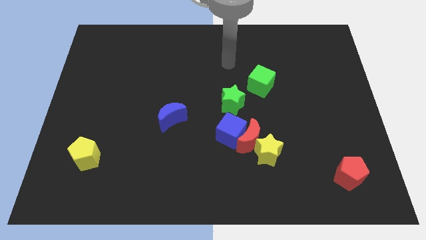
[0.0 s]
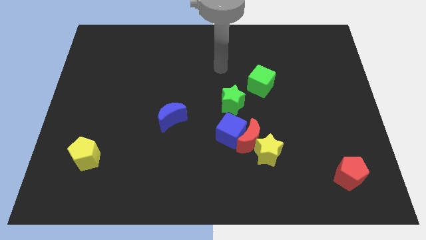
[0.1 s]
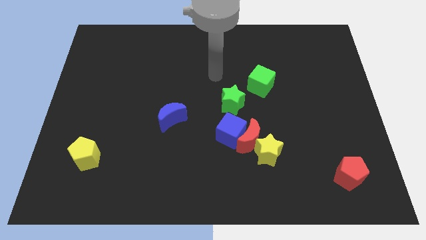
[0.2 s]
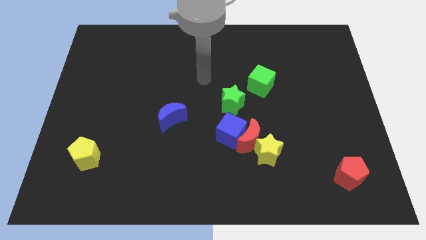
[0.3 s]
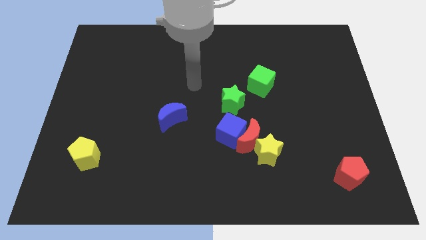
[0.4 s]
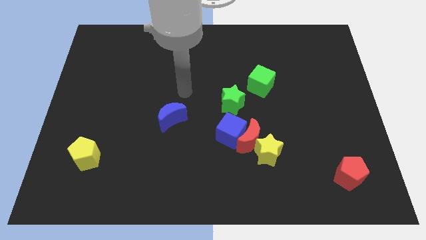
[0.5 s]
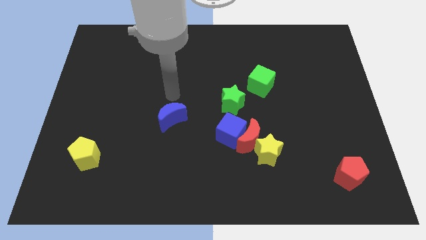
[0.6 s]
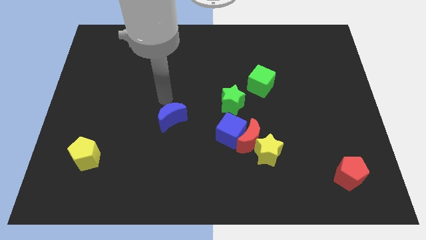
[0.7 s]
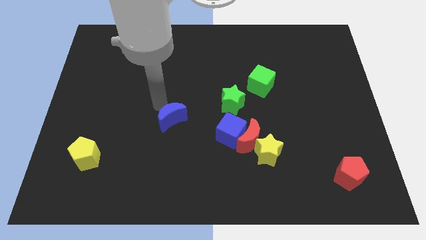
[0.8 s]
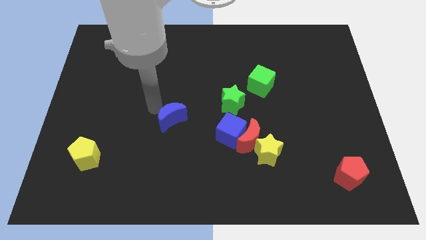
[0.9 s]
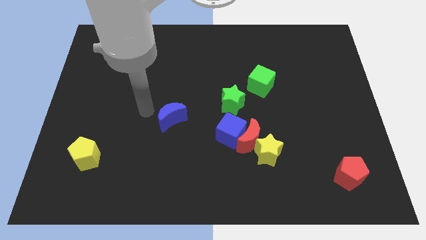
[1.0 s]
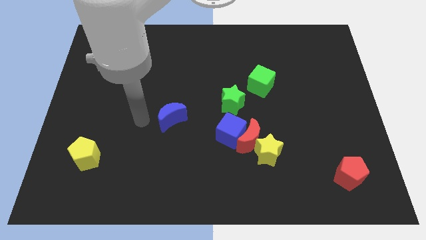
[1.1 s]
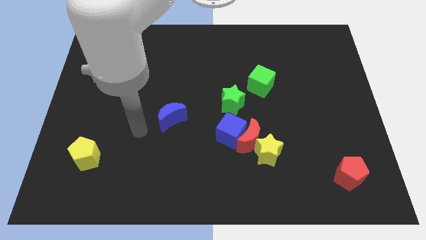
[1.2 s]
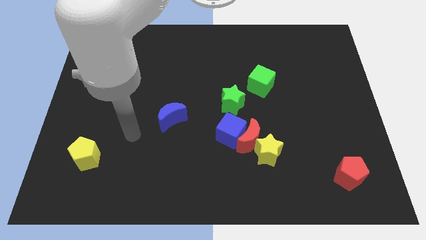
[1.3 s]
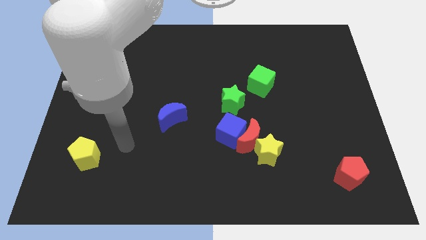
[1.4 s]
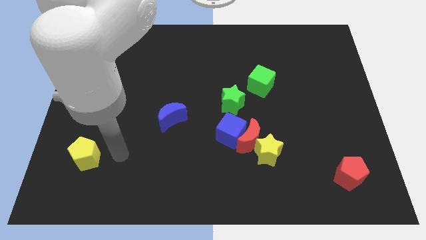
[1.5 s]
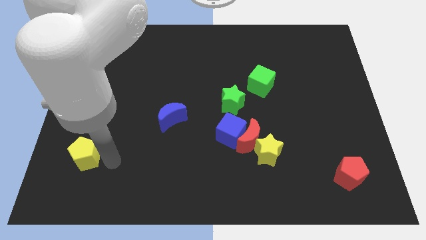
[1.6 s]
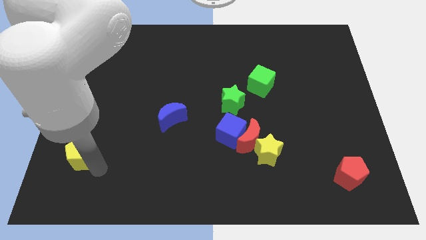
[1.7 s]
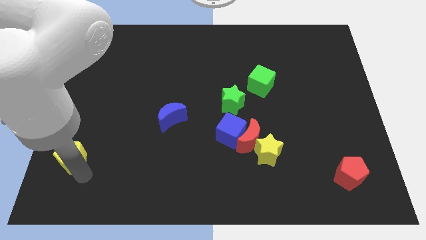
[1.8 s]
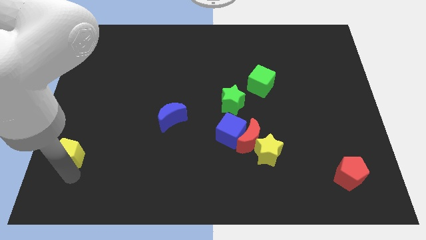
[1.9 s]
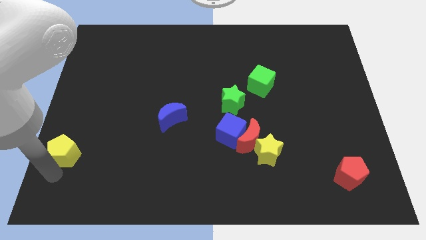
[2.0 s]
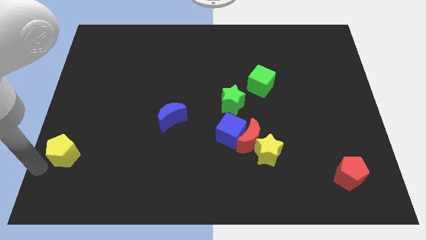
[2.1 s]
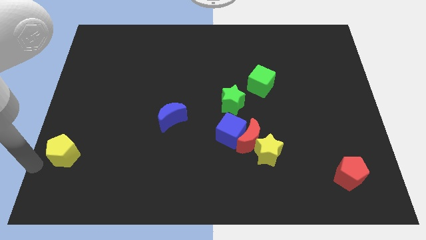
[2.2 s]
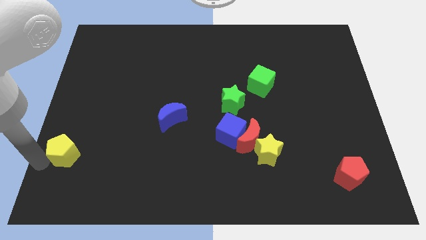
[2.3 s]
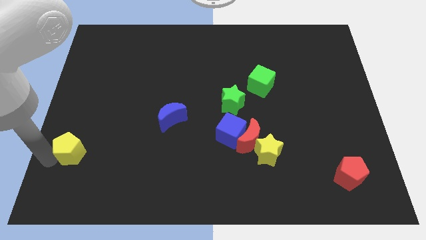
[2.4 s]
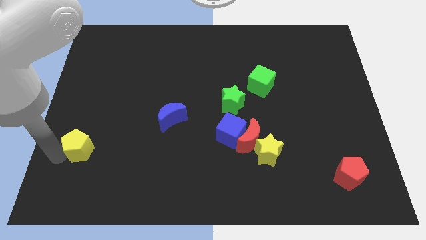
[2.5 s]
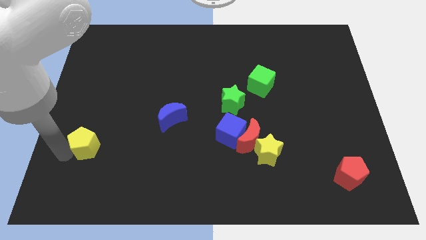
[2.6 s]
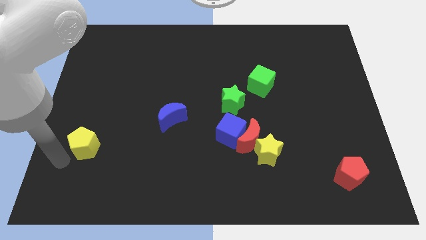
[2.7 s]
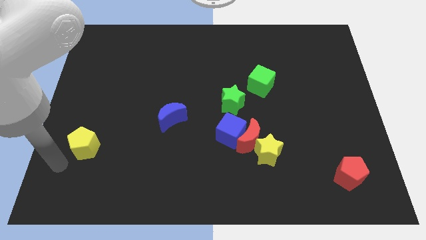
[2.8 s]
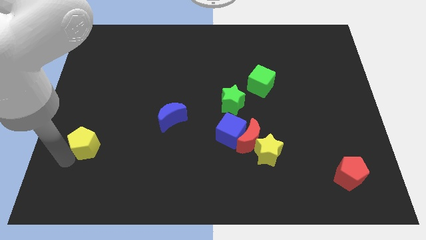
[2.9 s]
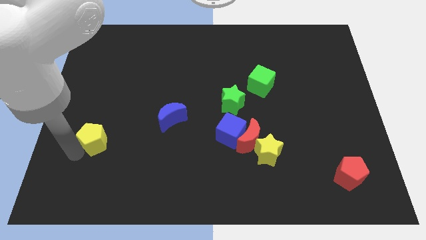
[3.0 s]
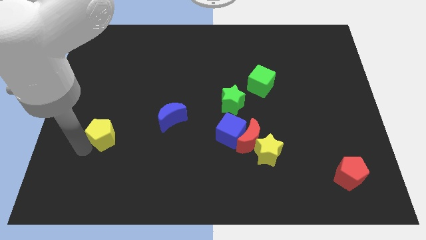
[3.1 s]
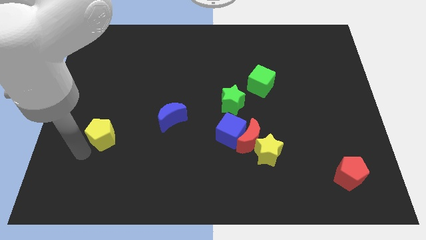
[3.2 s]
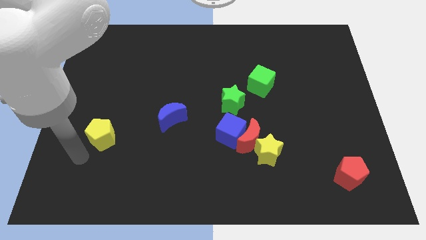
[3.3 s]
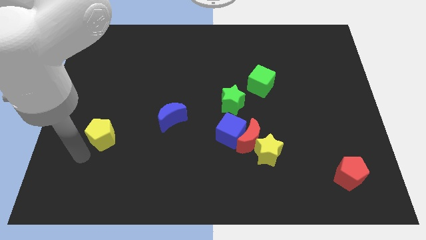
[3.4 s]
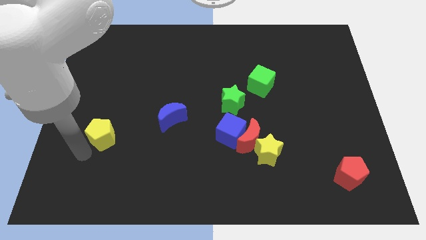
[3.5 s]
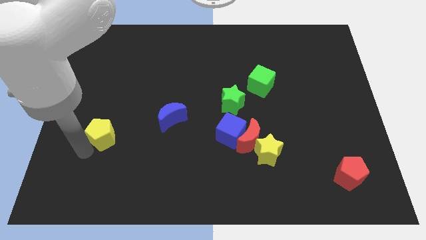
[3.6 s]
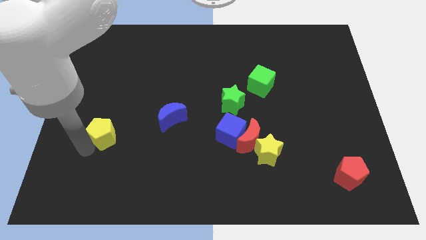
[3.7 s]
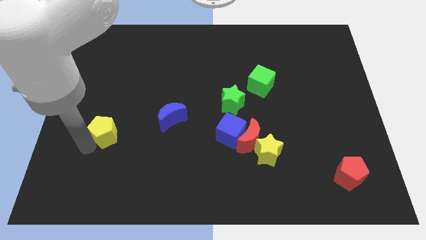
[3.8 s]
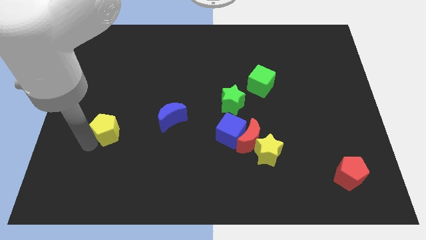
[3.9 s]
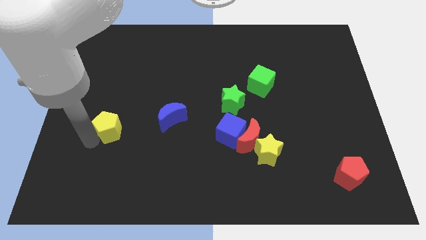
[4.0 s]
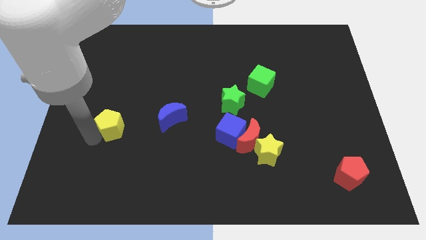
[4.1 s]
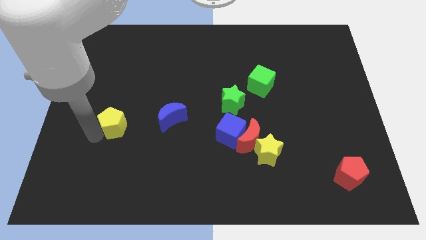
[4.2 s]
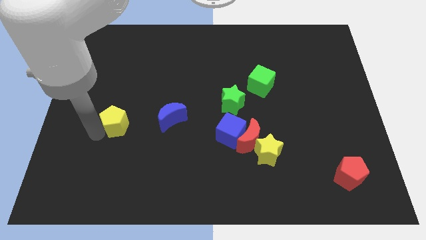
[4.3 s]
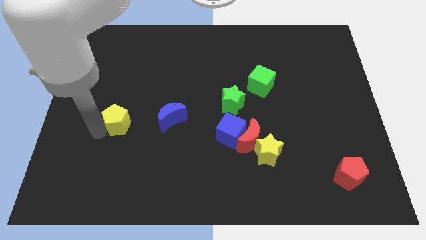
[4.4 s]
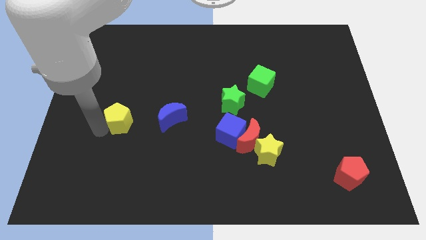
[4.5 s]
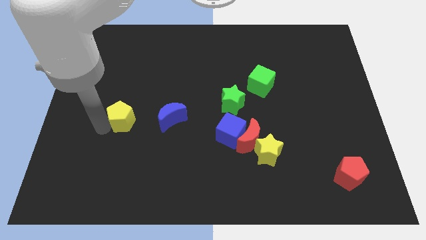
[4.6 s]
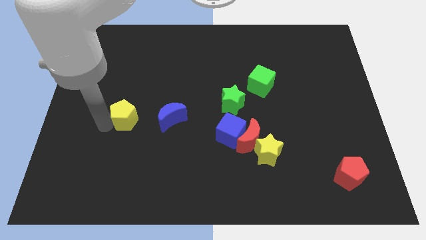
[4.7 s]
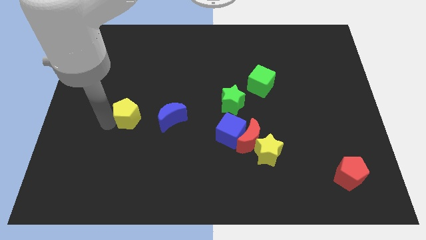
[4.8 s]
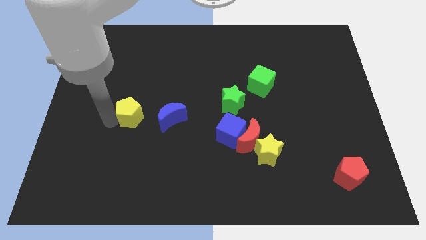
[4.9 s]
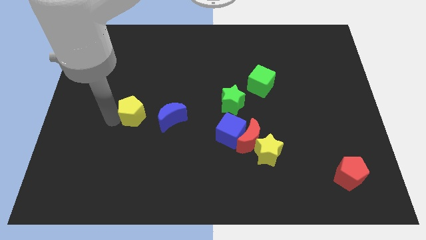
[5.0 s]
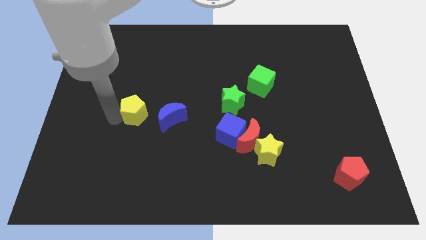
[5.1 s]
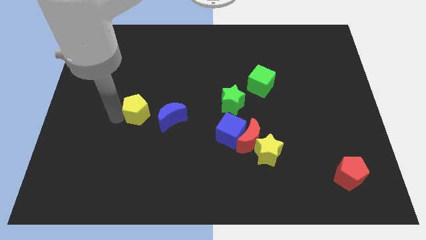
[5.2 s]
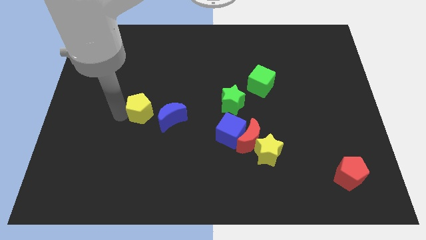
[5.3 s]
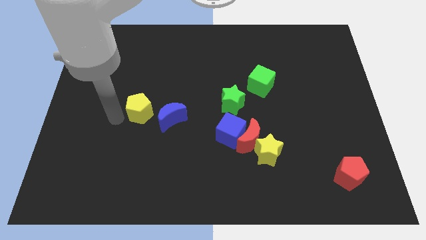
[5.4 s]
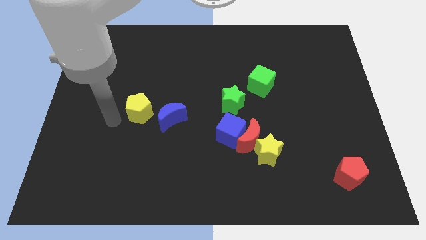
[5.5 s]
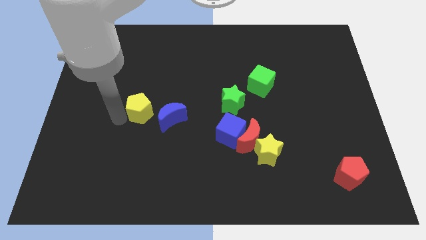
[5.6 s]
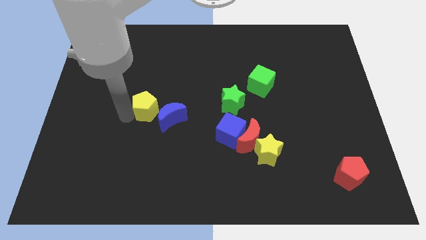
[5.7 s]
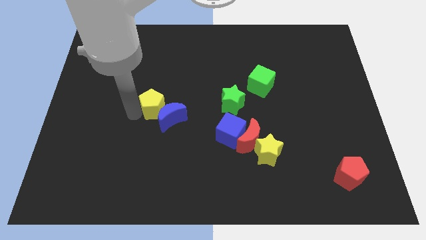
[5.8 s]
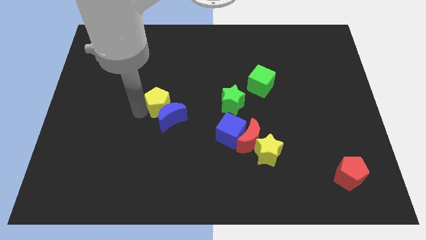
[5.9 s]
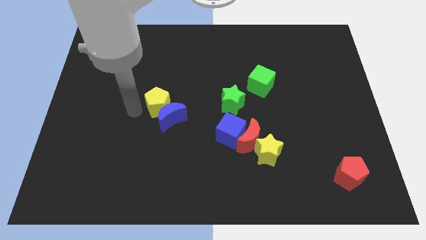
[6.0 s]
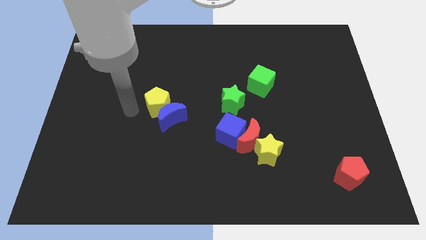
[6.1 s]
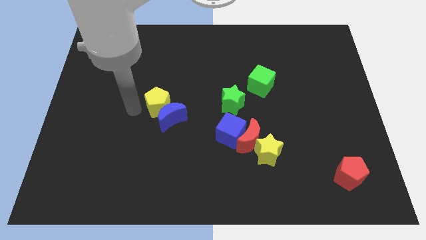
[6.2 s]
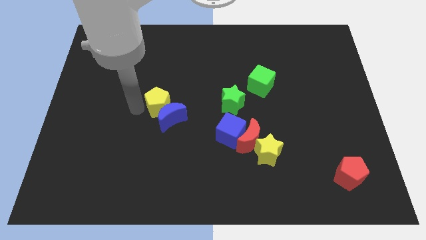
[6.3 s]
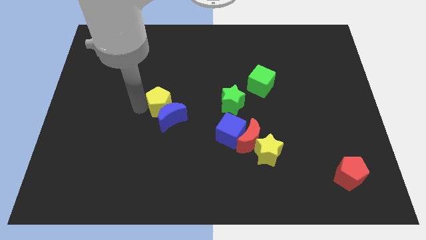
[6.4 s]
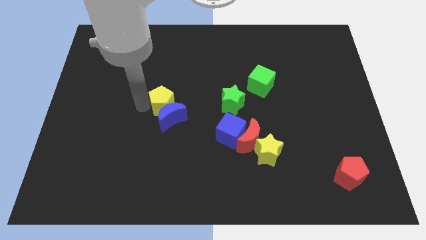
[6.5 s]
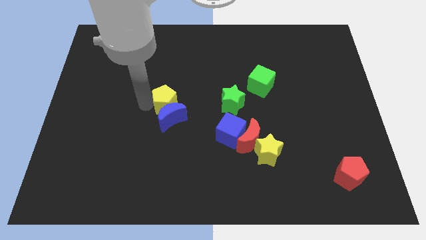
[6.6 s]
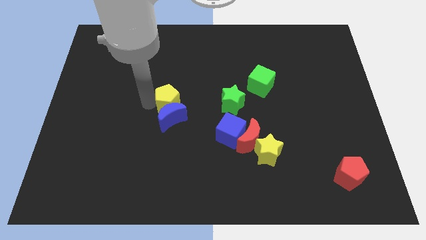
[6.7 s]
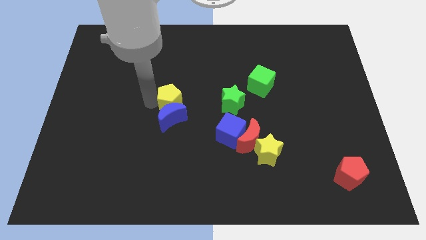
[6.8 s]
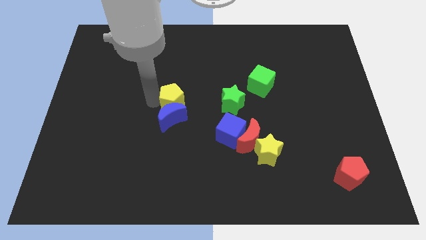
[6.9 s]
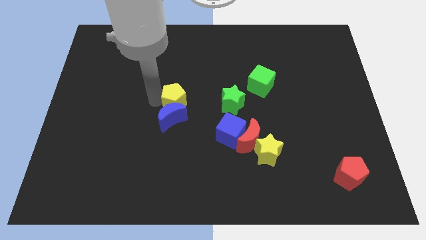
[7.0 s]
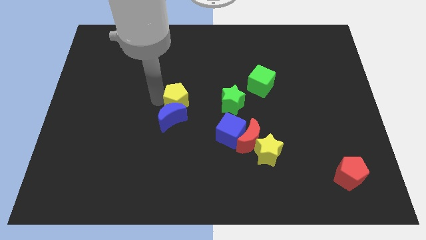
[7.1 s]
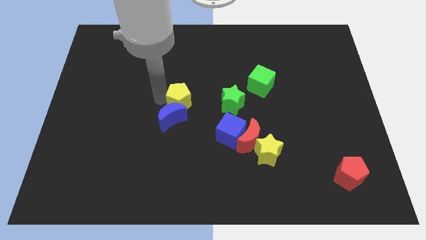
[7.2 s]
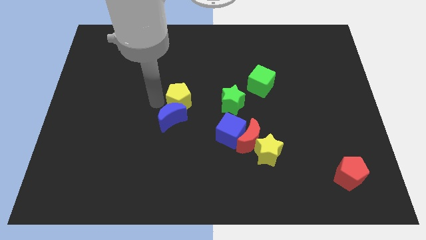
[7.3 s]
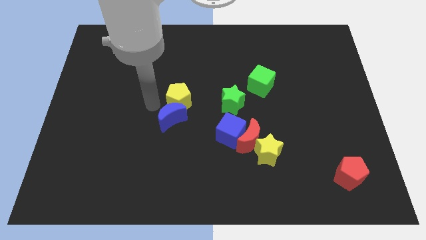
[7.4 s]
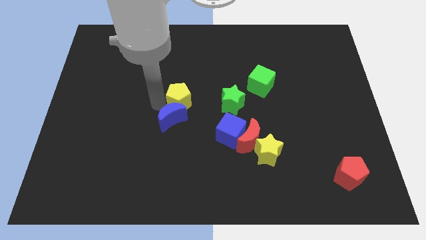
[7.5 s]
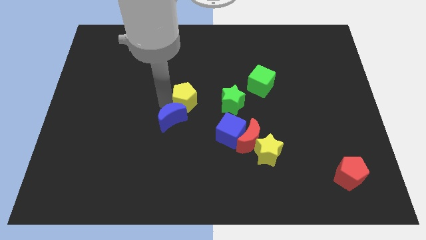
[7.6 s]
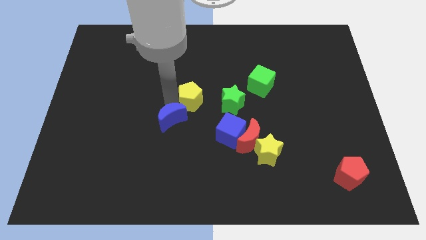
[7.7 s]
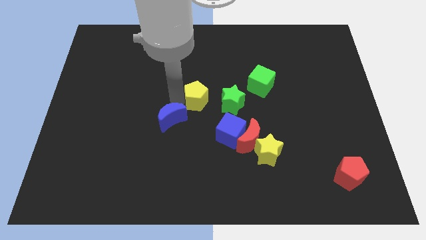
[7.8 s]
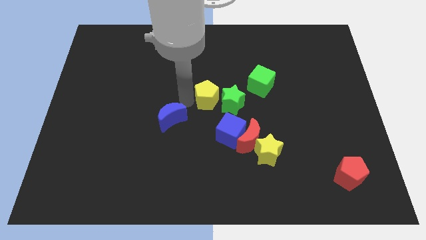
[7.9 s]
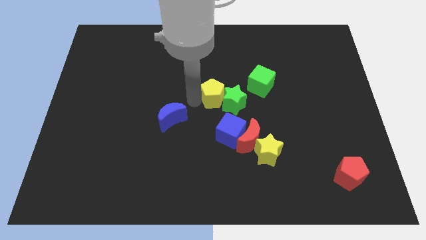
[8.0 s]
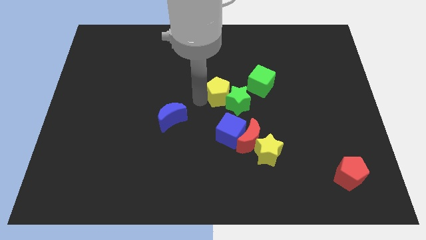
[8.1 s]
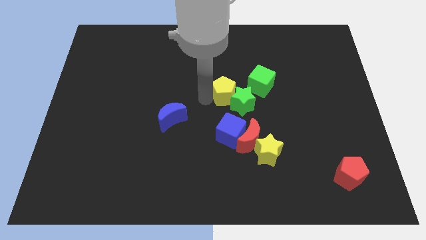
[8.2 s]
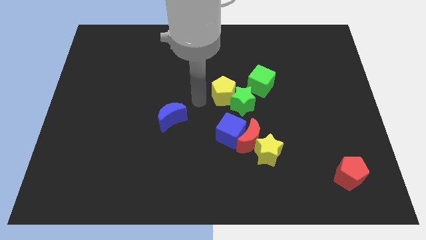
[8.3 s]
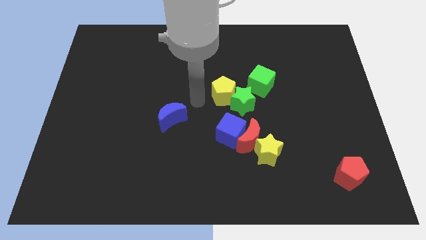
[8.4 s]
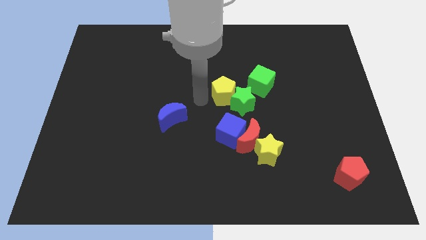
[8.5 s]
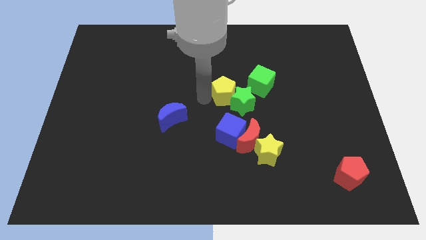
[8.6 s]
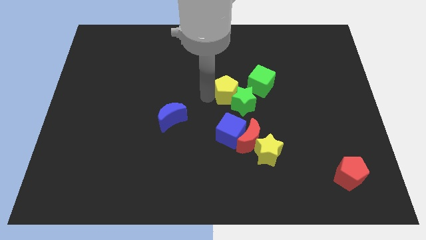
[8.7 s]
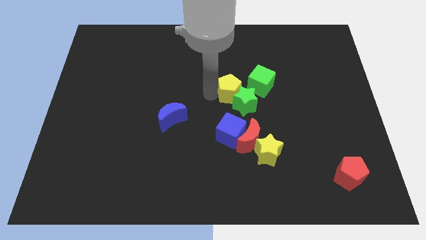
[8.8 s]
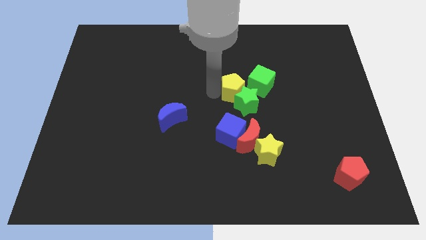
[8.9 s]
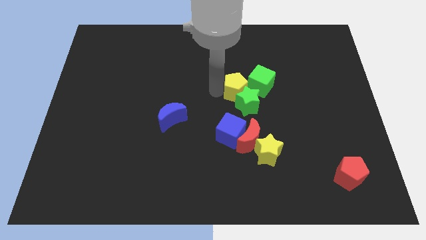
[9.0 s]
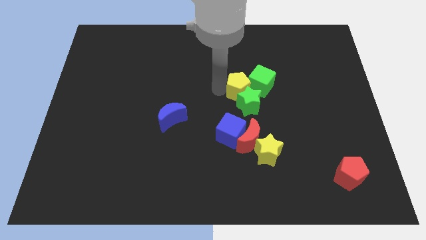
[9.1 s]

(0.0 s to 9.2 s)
move the yellow pentagon close to the green cube
